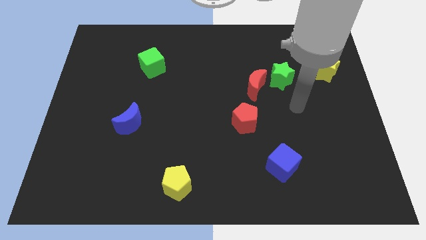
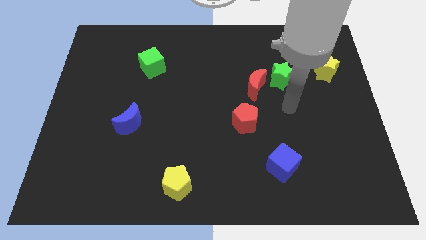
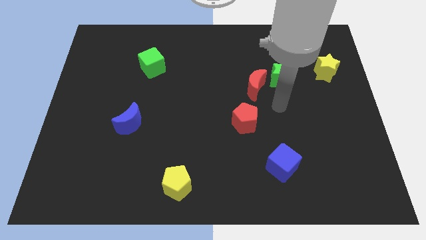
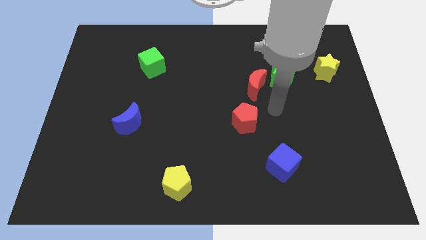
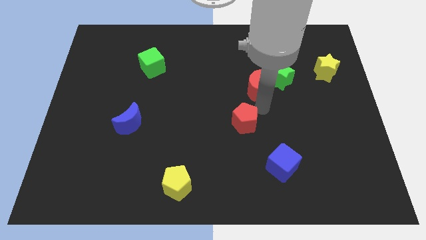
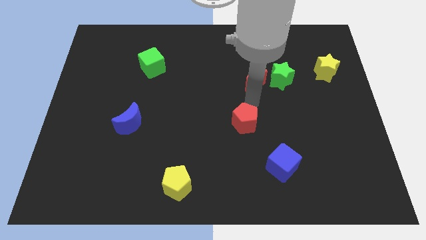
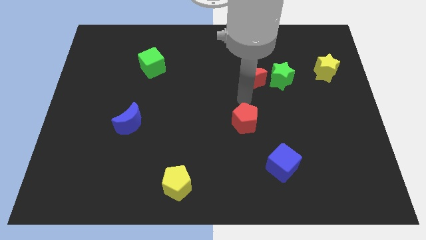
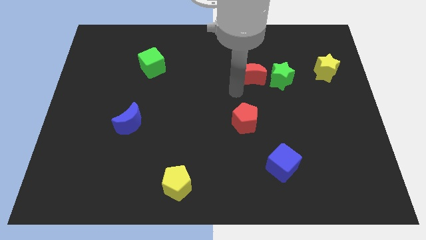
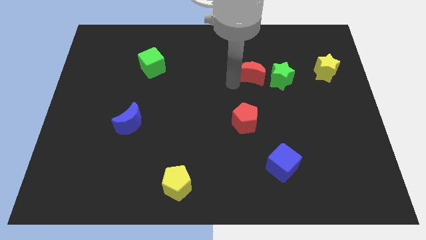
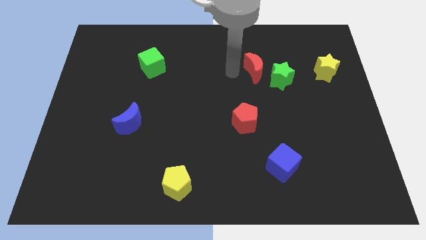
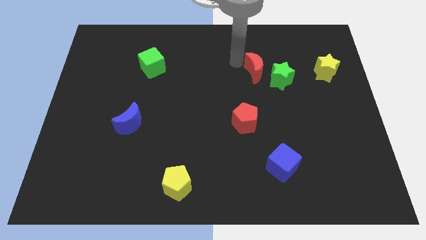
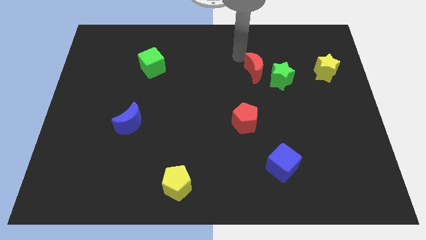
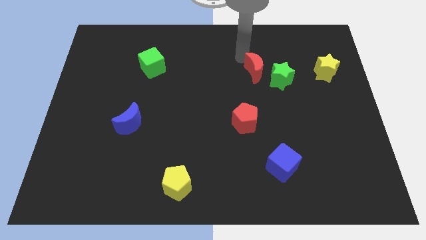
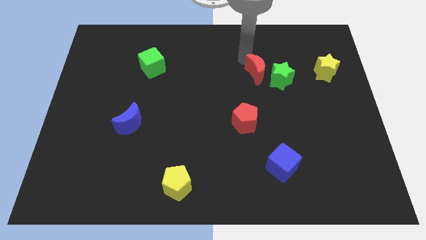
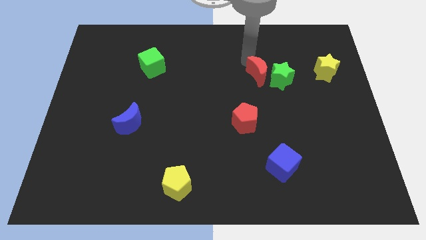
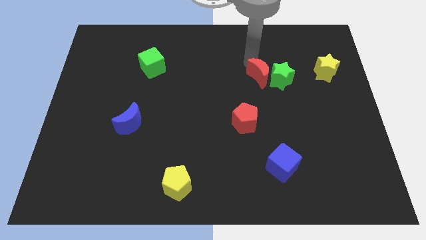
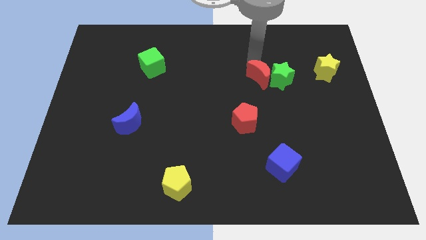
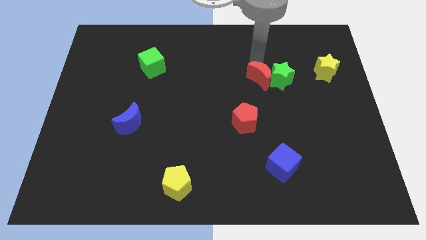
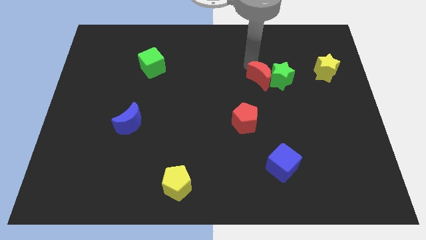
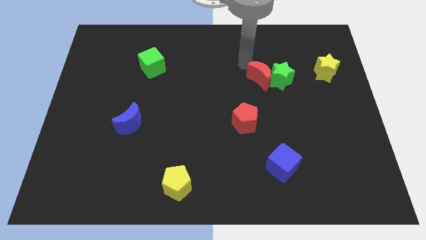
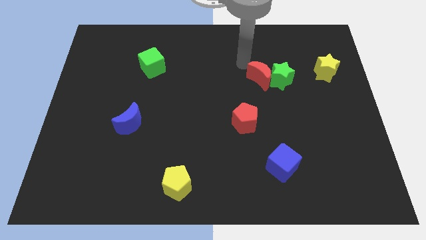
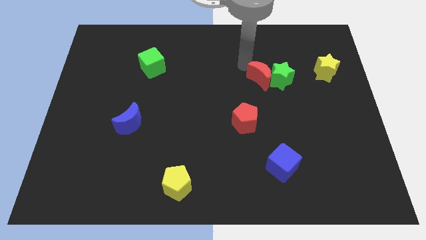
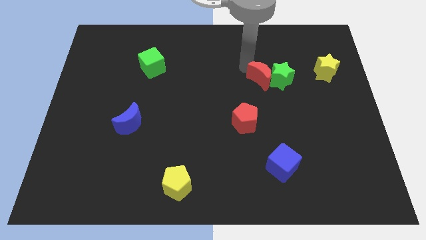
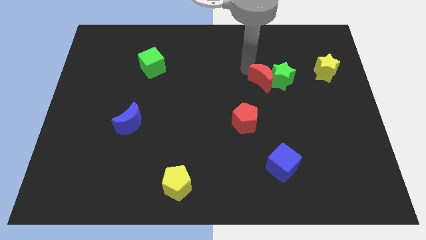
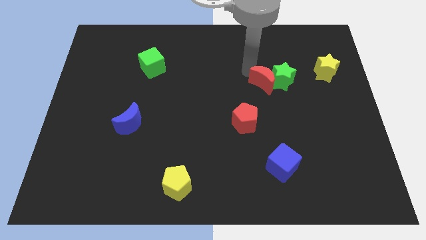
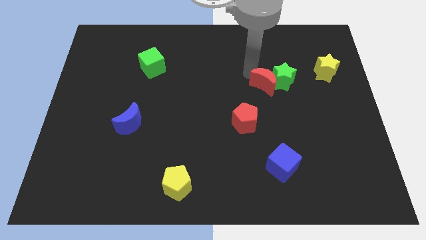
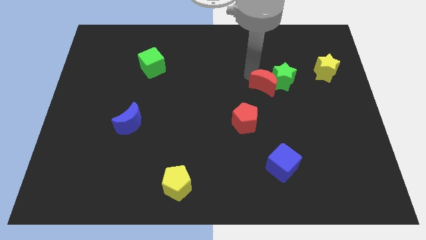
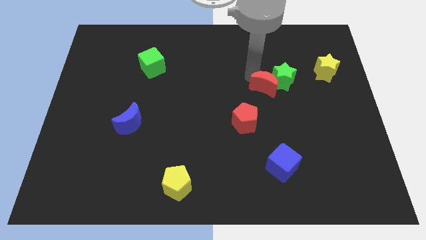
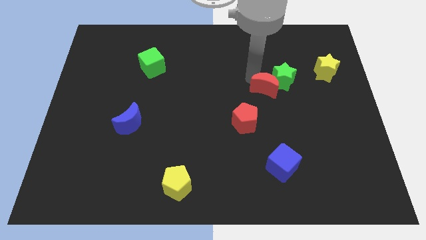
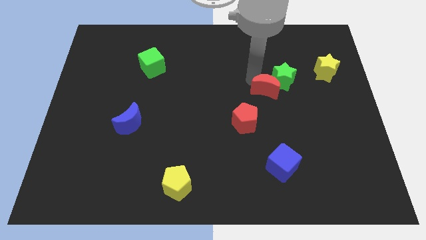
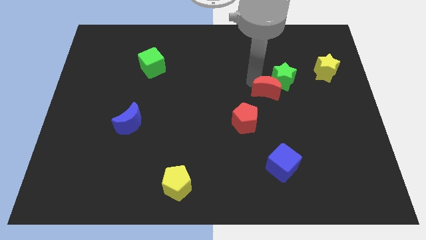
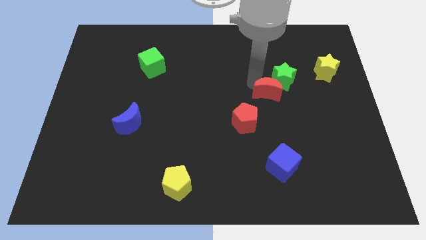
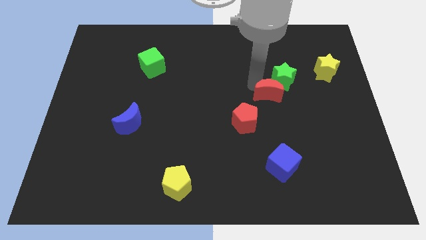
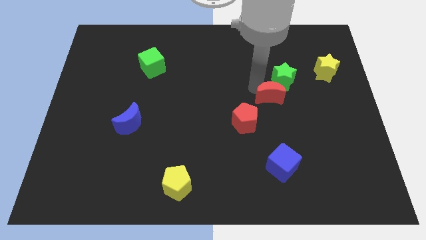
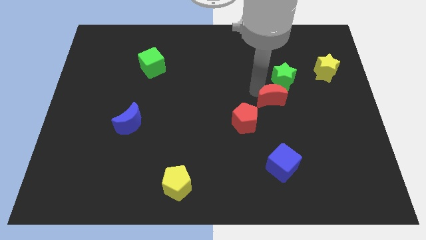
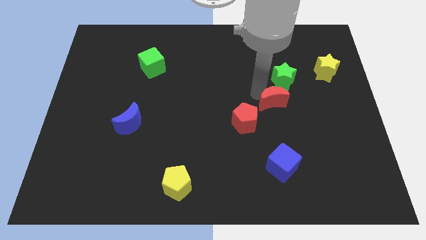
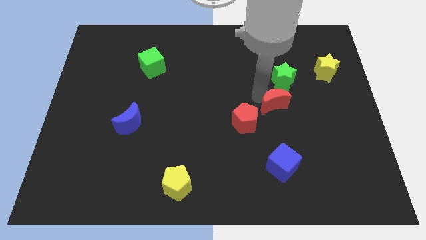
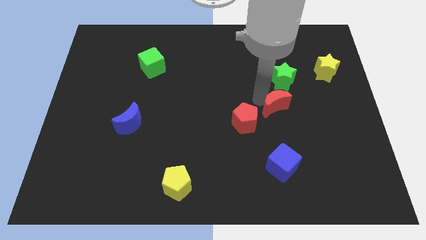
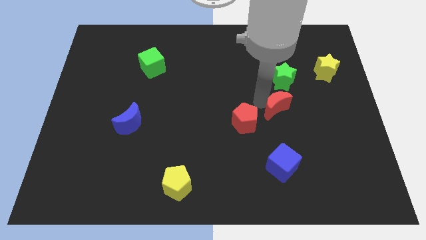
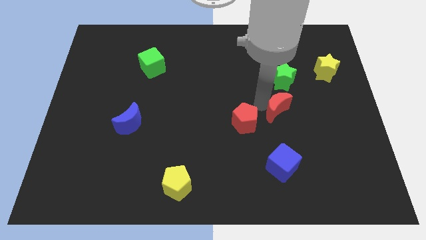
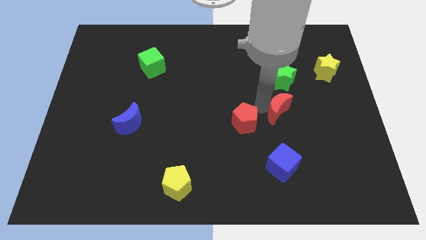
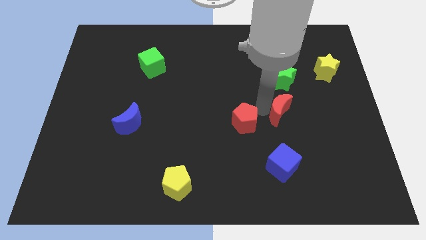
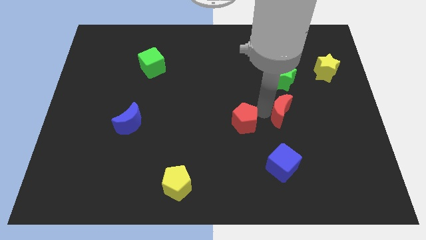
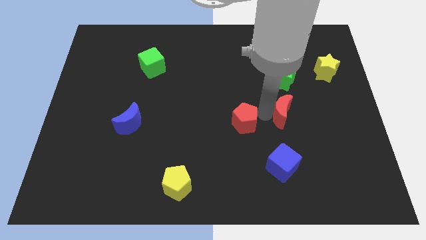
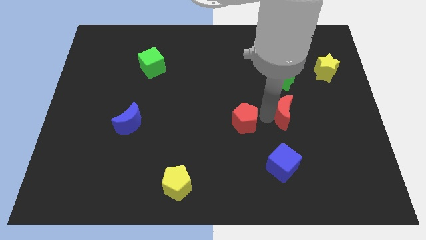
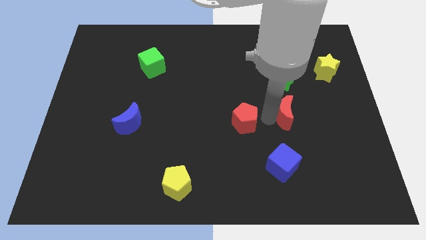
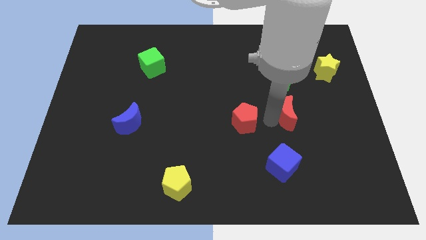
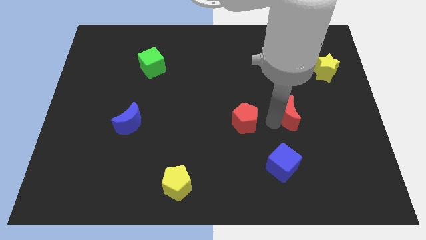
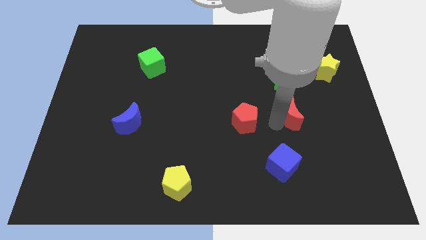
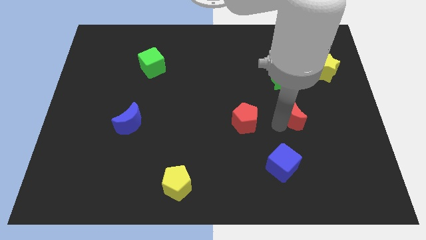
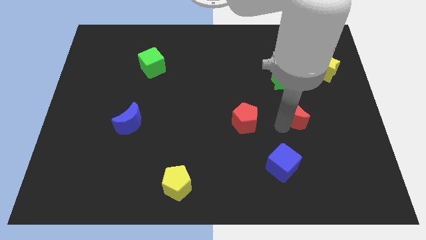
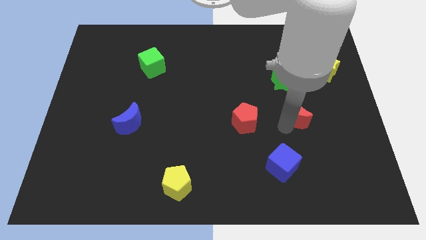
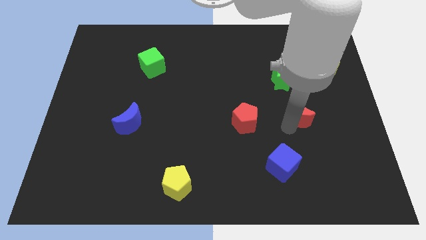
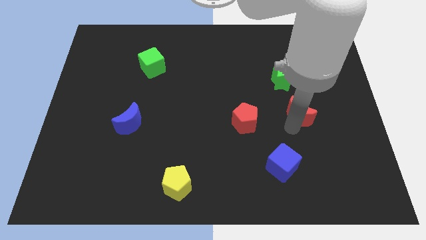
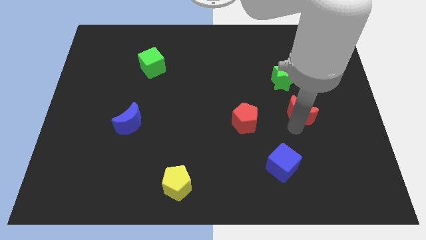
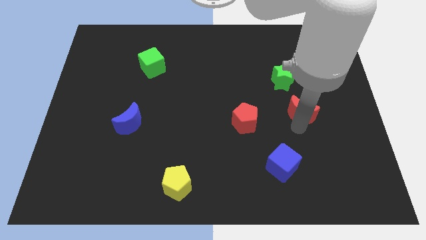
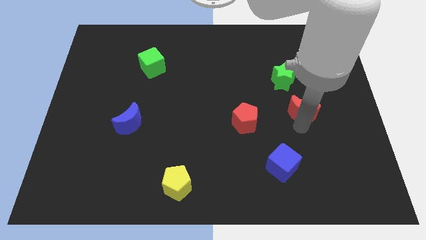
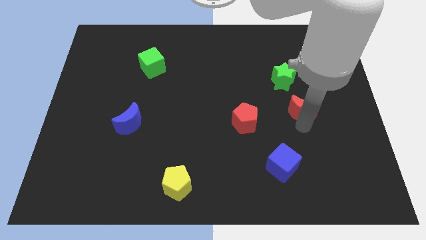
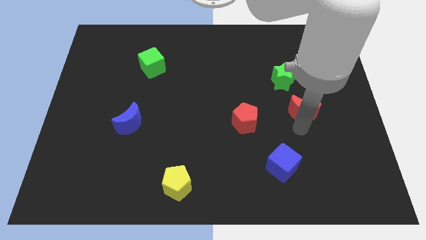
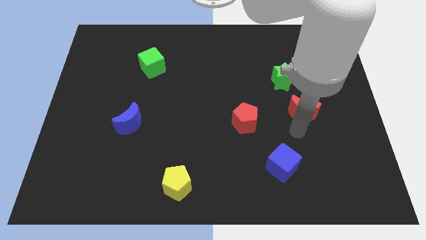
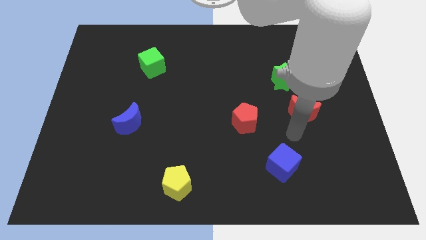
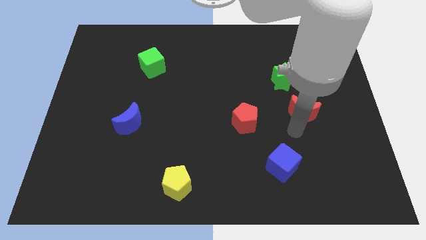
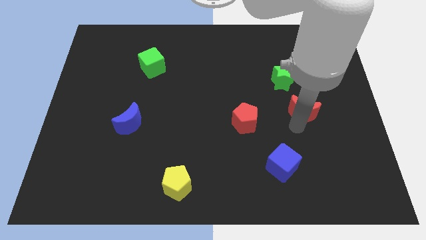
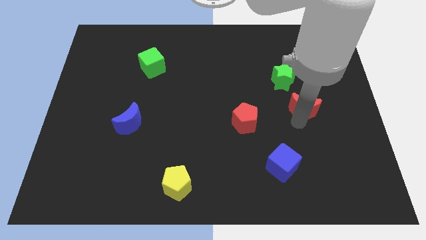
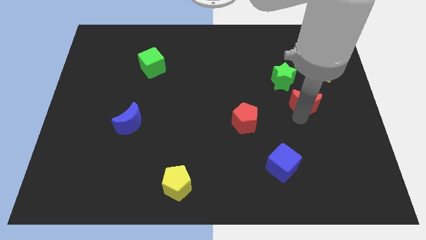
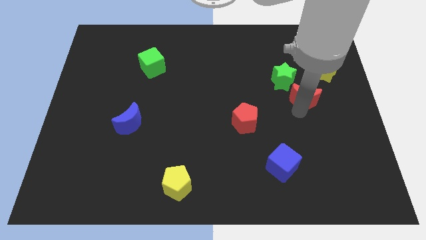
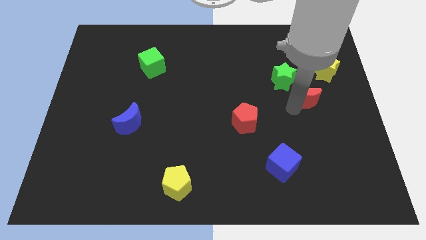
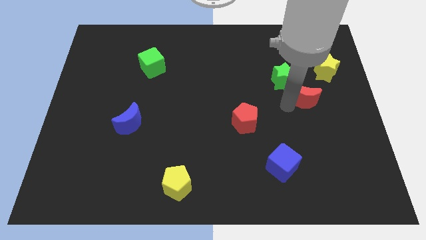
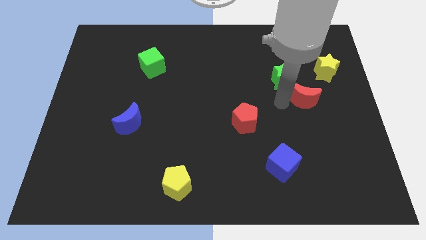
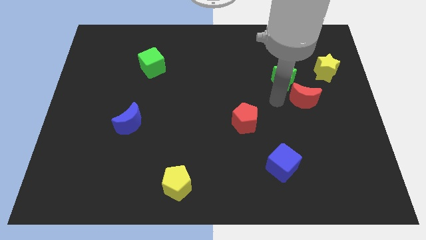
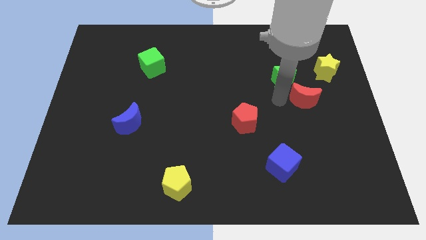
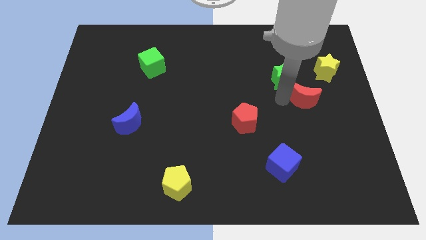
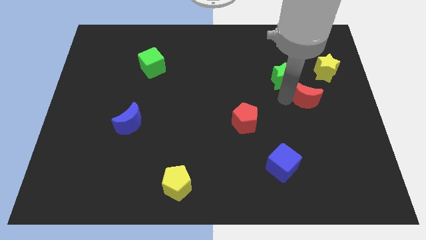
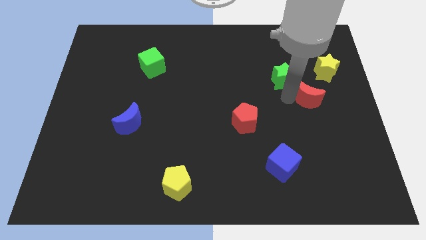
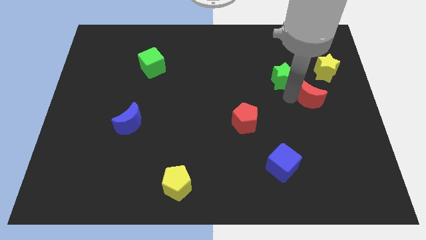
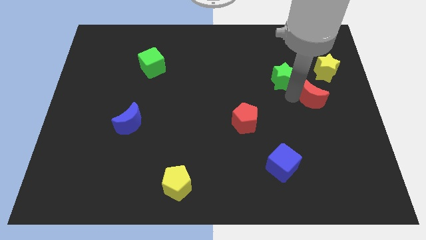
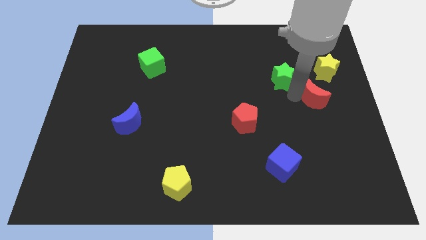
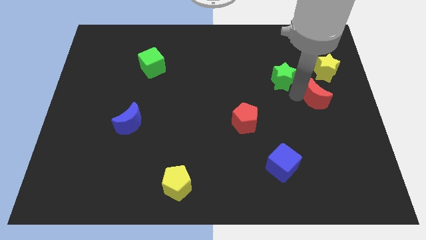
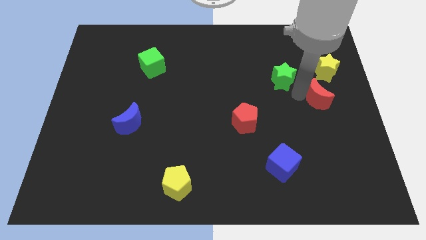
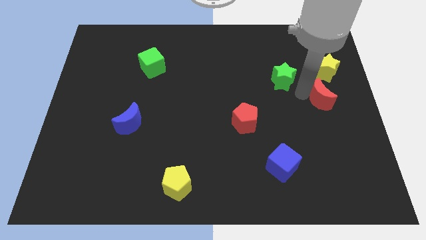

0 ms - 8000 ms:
slide the red moon to the center right
